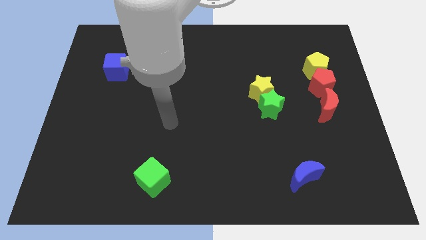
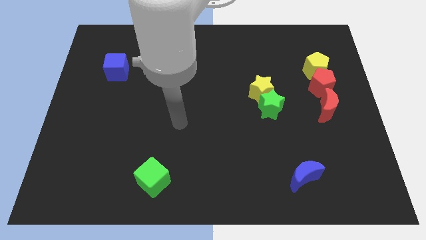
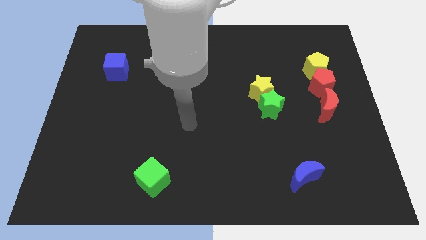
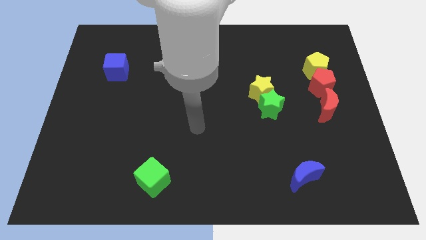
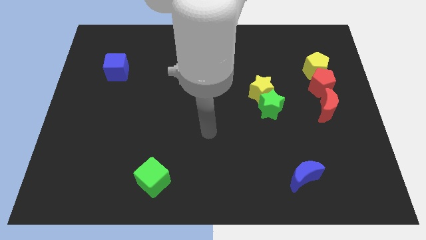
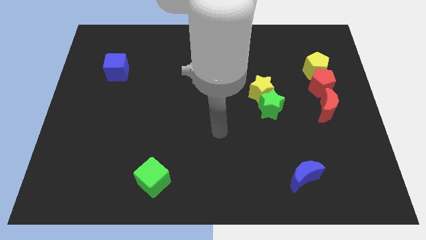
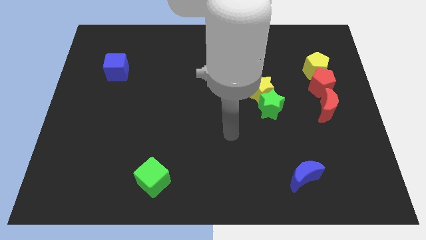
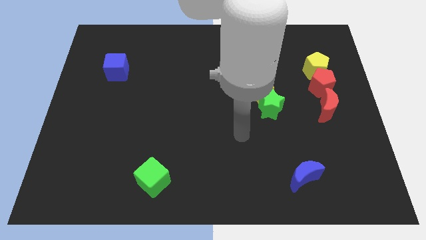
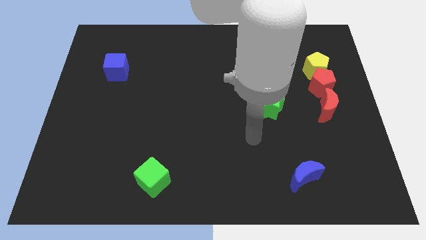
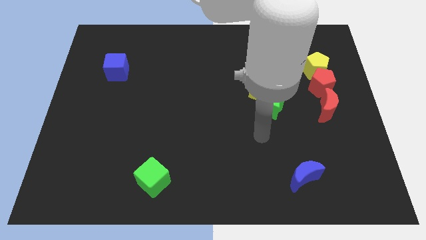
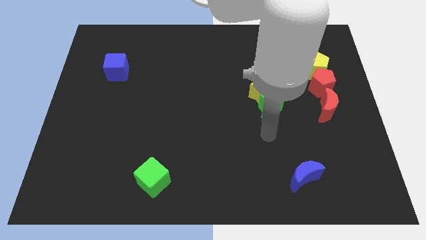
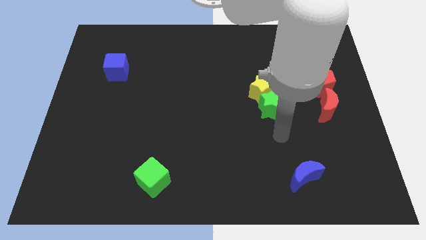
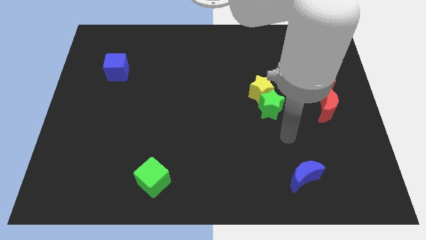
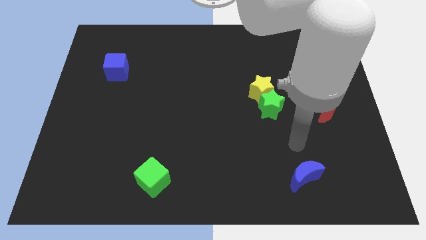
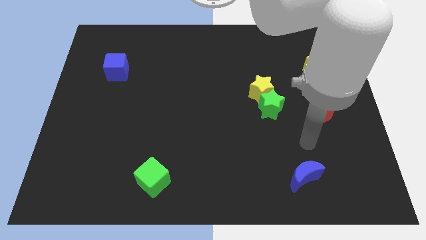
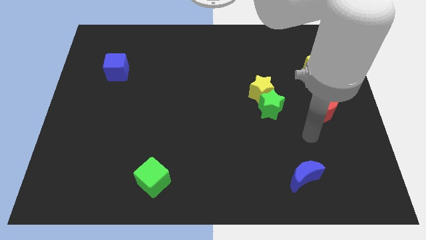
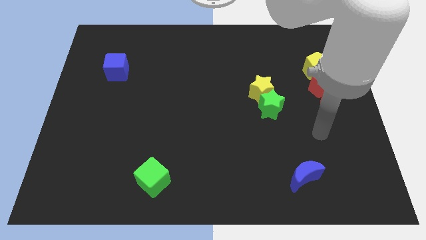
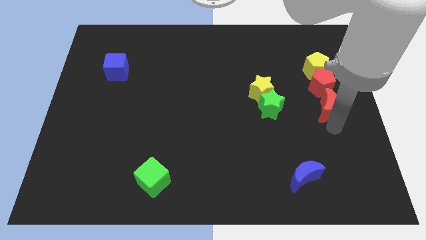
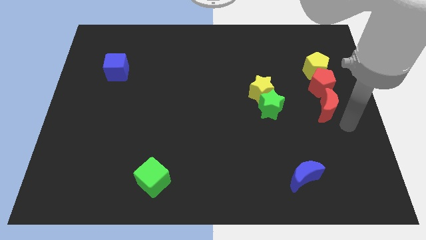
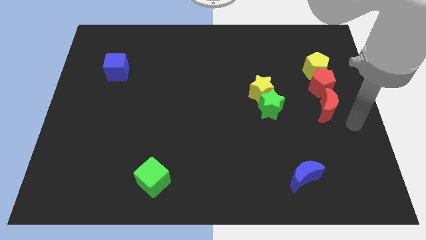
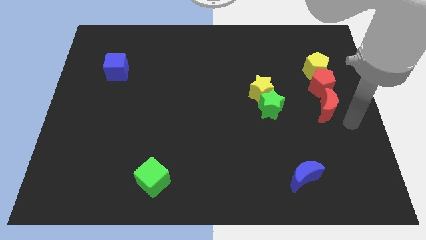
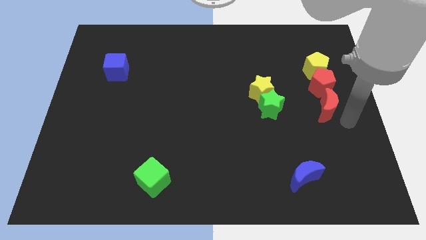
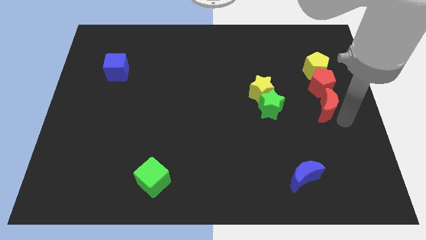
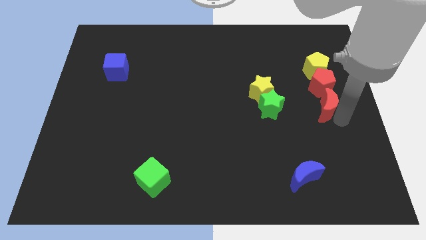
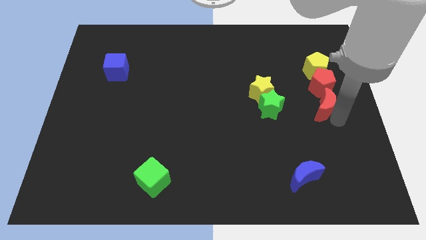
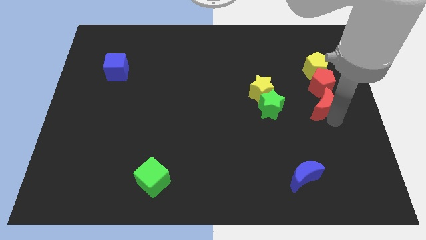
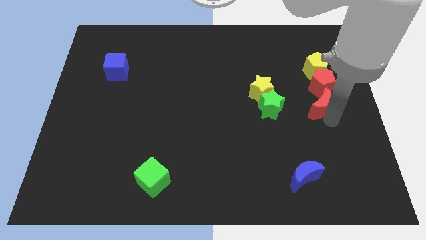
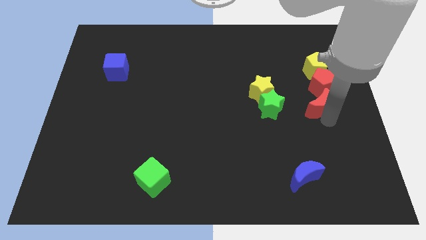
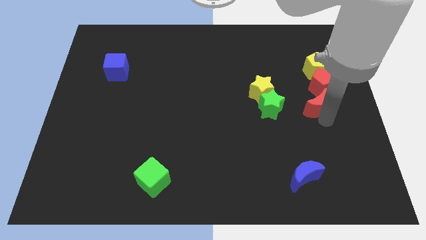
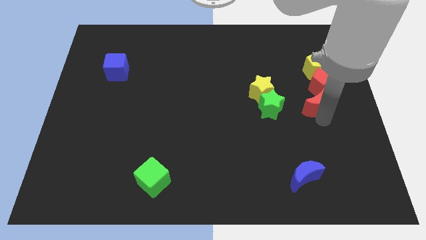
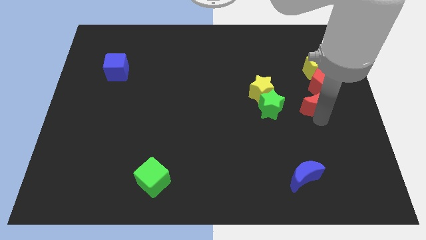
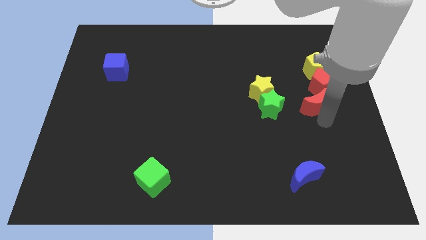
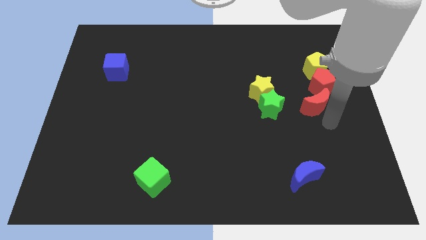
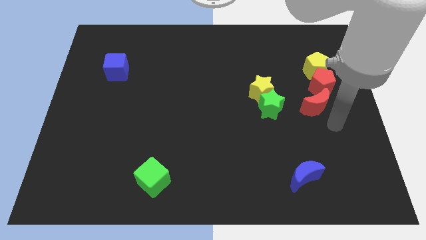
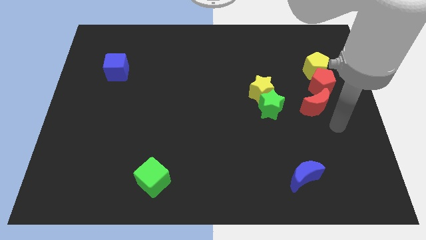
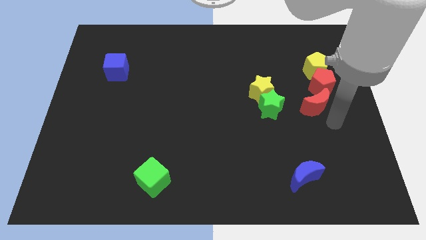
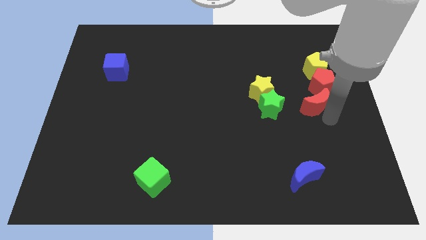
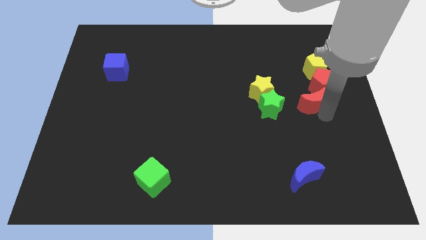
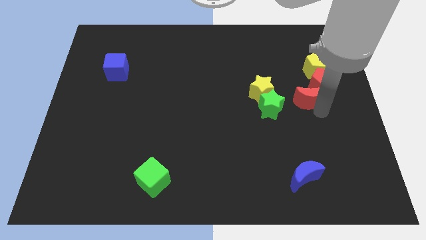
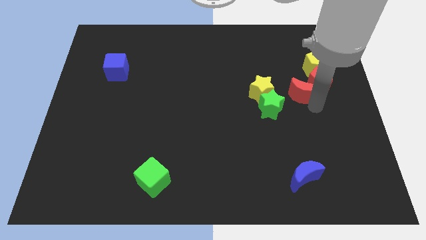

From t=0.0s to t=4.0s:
slightly push the red moon upwards and left diagonally

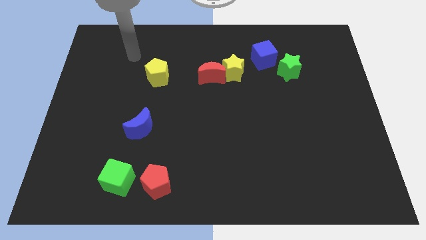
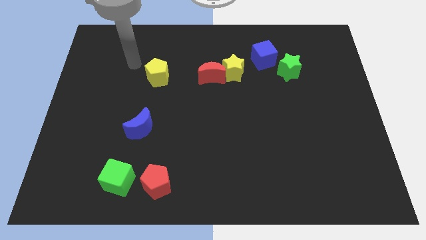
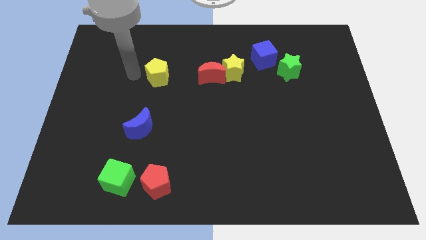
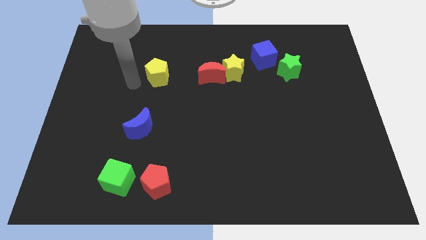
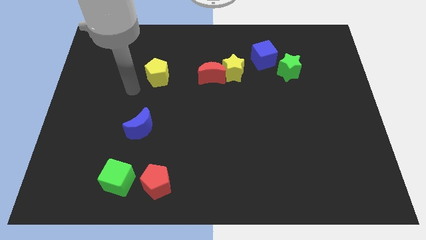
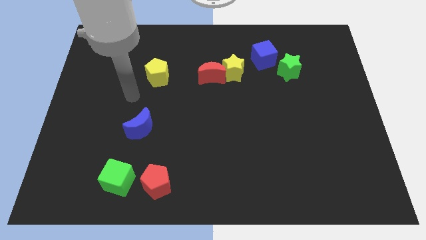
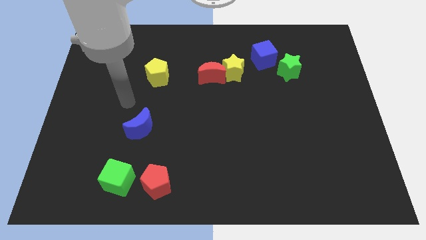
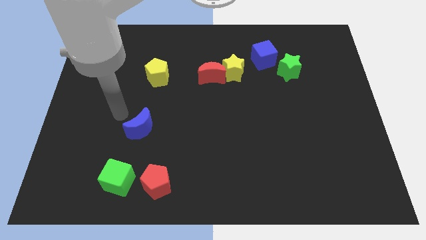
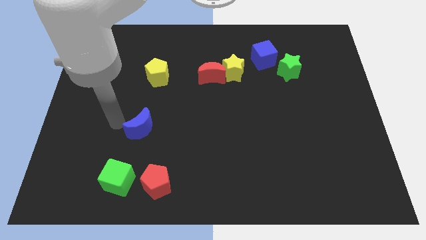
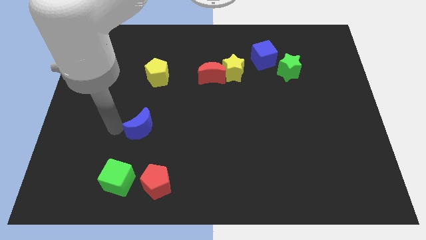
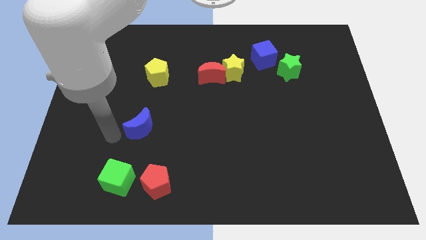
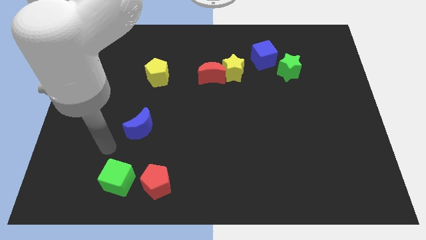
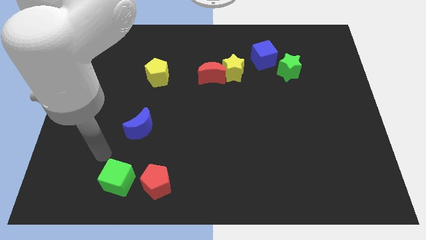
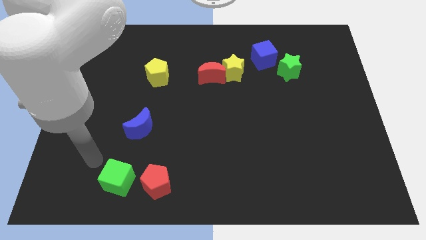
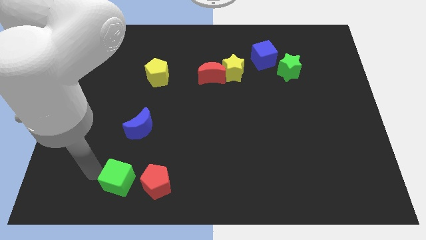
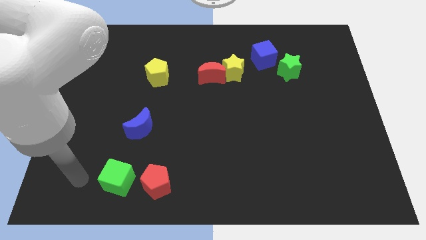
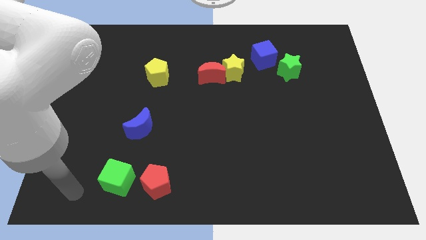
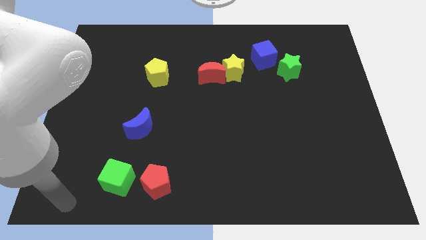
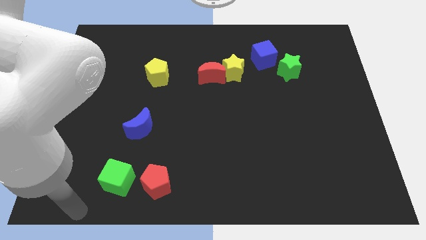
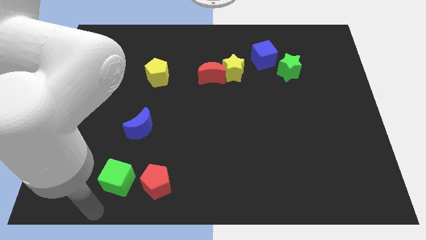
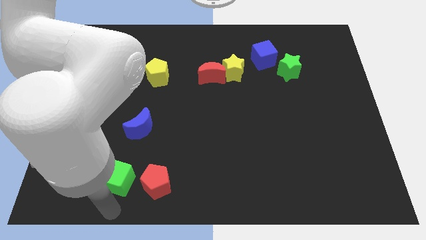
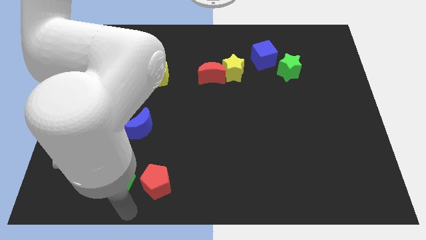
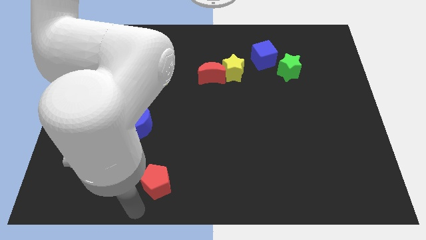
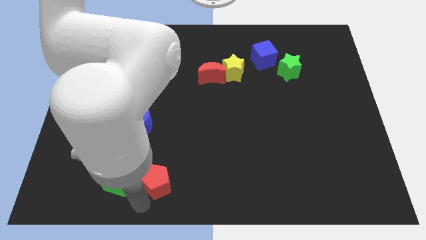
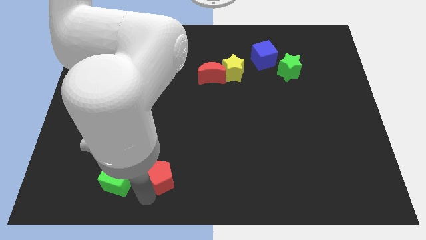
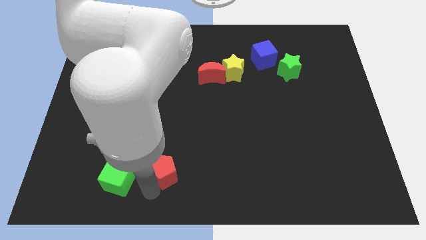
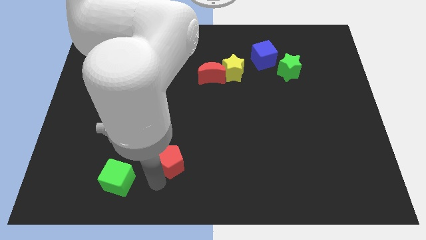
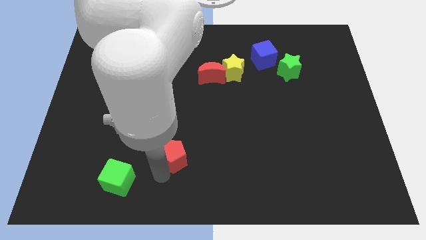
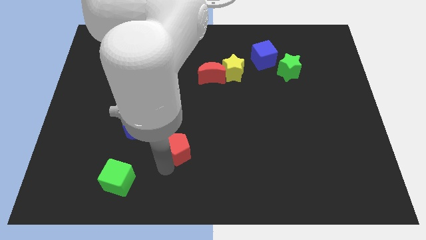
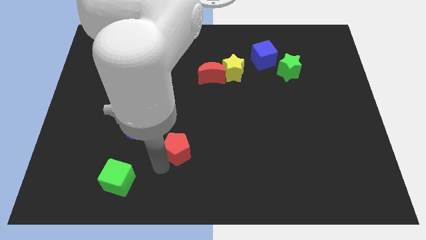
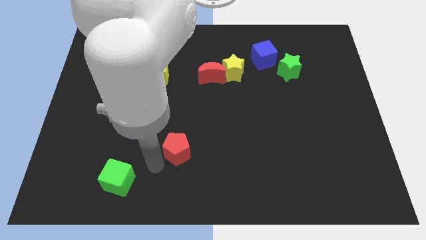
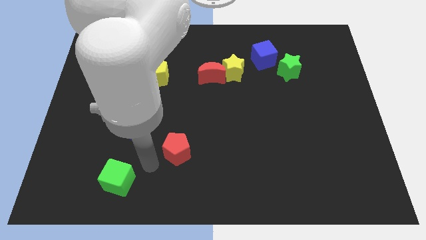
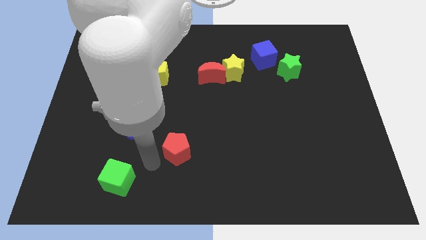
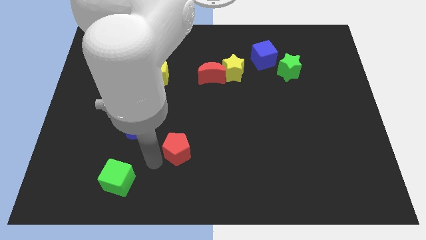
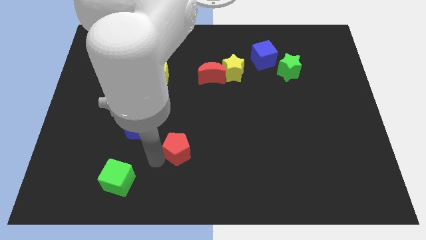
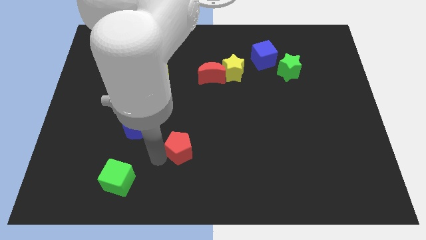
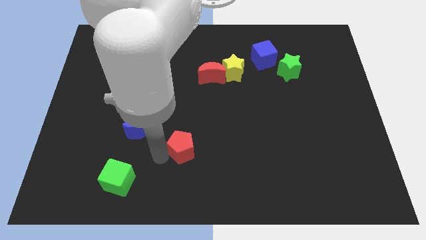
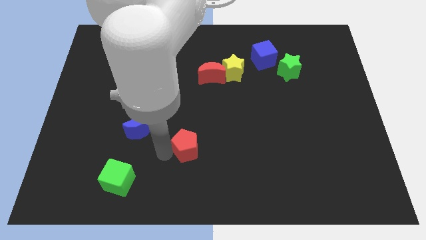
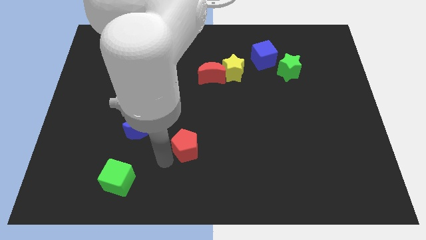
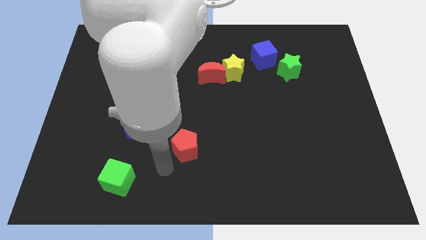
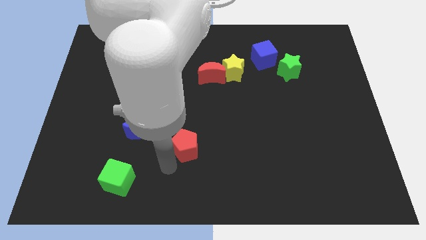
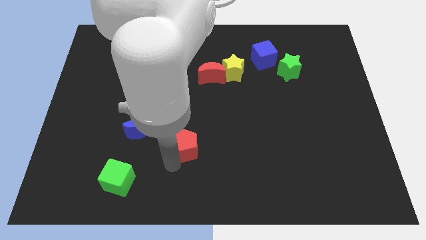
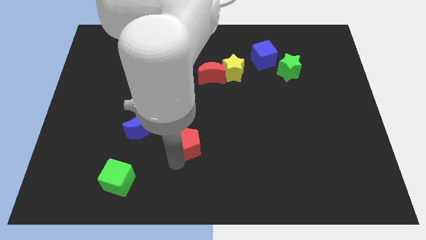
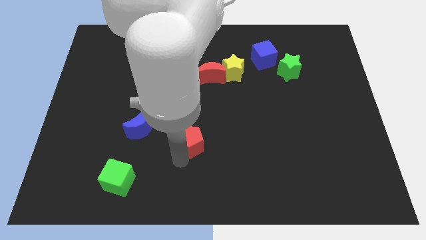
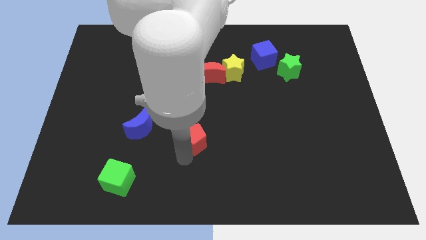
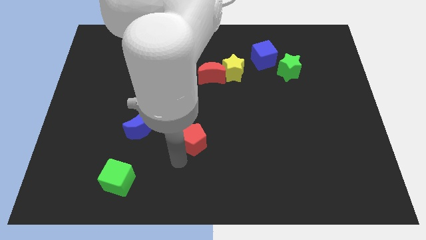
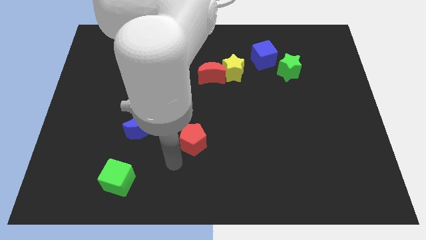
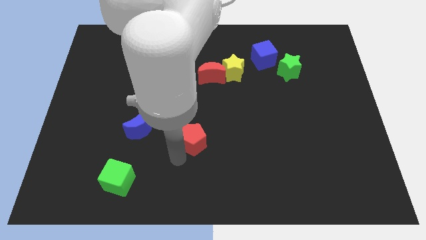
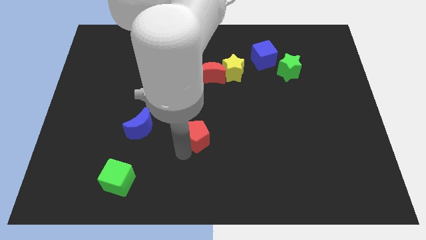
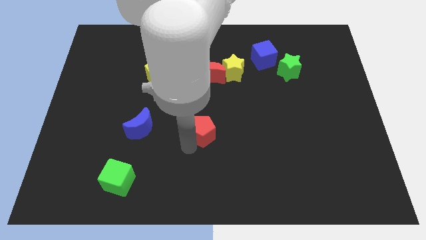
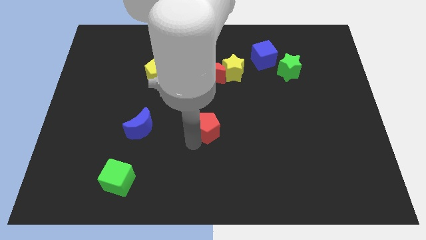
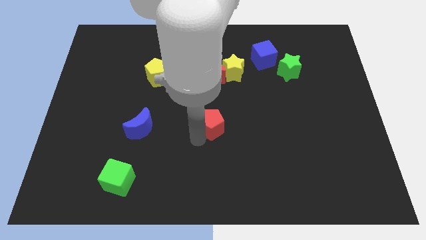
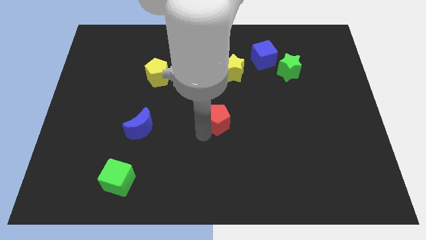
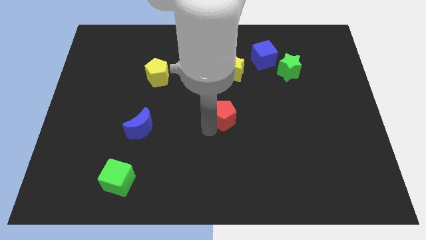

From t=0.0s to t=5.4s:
push the red pentagon upwards and to the right diagonally
